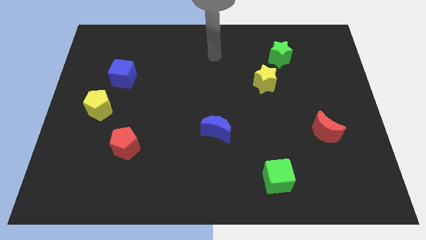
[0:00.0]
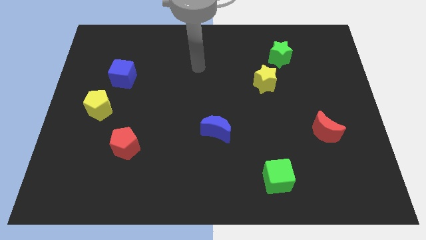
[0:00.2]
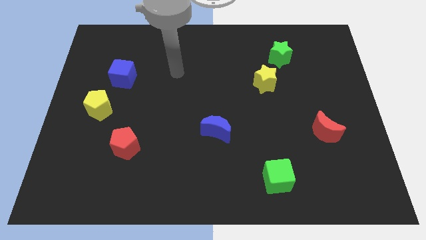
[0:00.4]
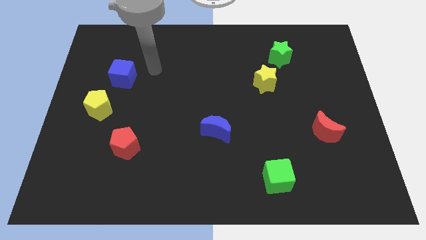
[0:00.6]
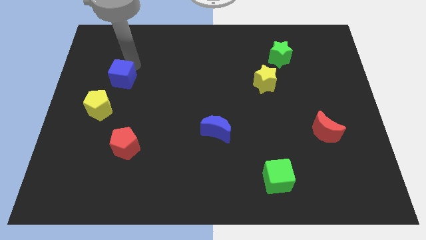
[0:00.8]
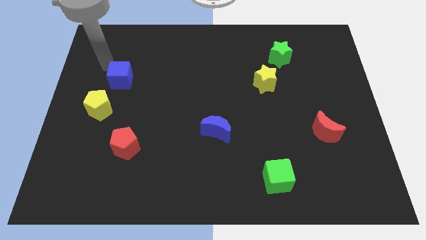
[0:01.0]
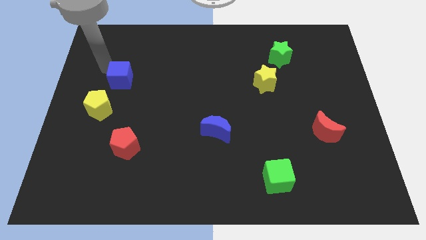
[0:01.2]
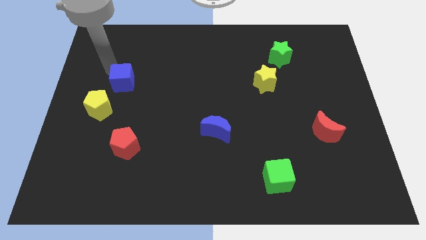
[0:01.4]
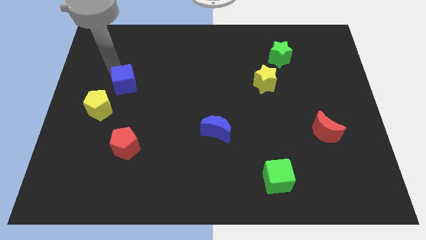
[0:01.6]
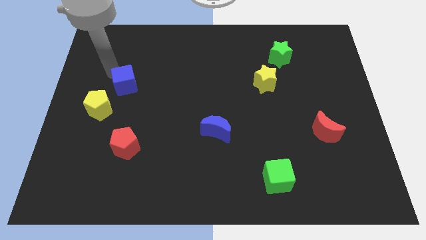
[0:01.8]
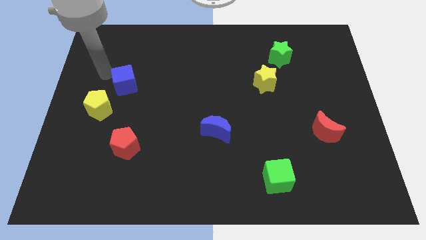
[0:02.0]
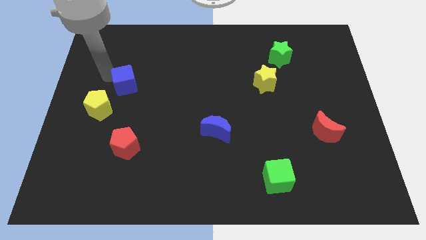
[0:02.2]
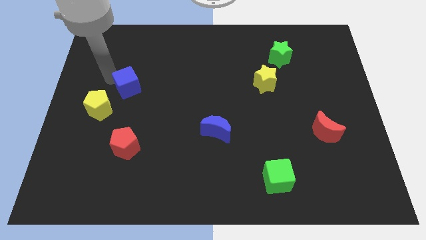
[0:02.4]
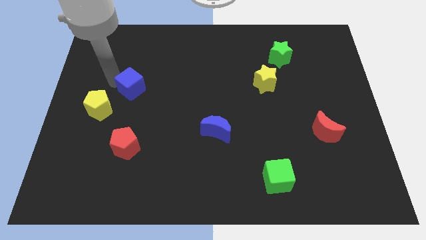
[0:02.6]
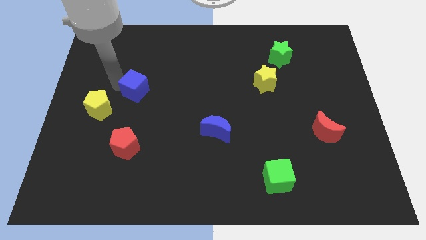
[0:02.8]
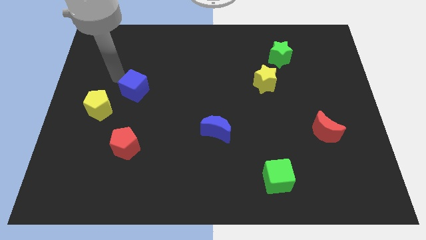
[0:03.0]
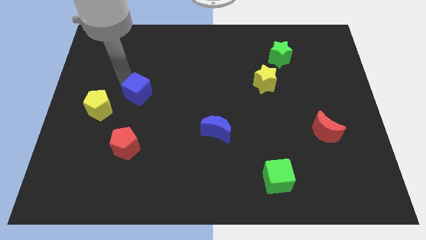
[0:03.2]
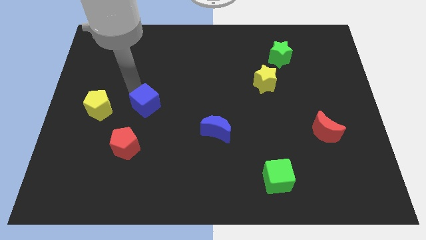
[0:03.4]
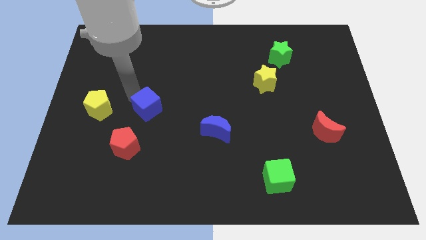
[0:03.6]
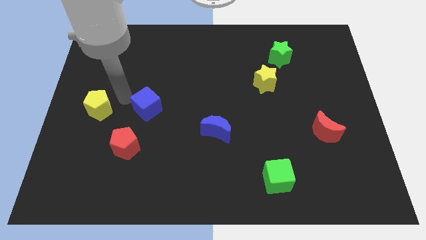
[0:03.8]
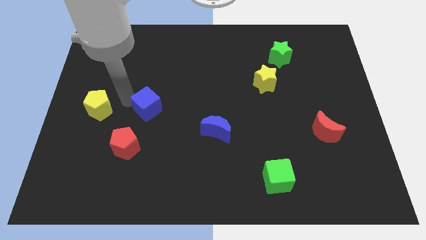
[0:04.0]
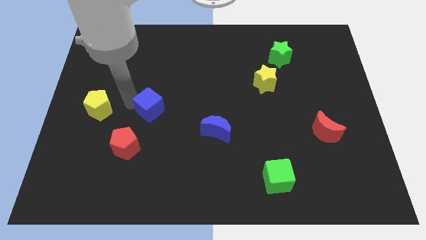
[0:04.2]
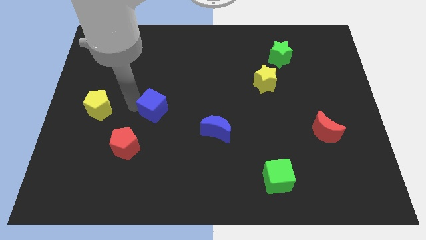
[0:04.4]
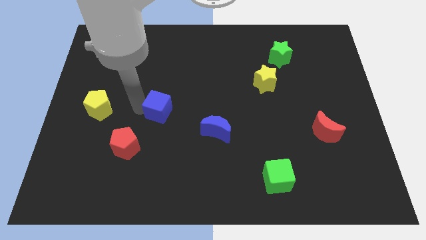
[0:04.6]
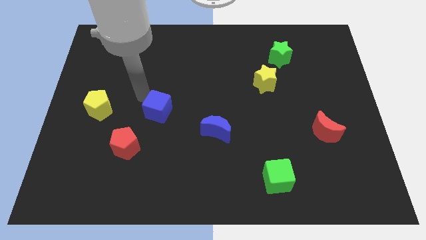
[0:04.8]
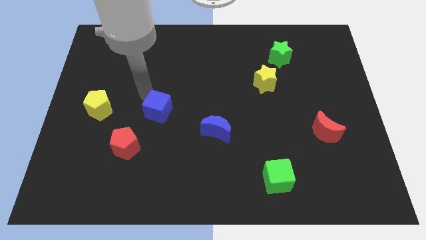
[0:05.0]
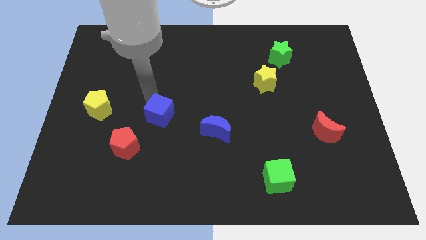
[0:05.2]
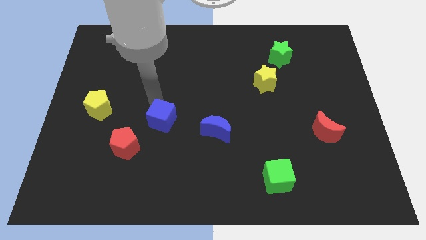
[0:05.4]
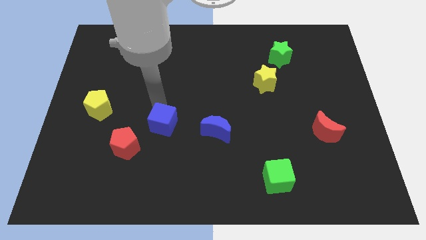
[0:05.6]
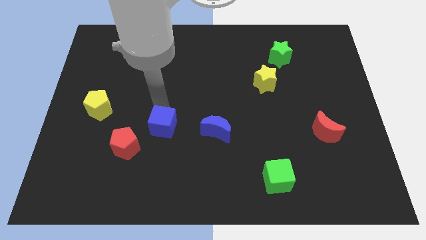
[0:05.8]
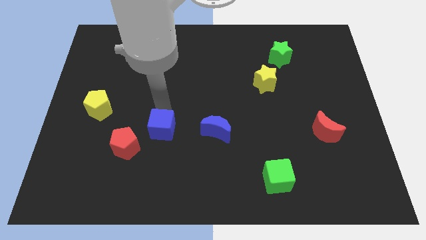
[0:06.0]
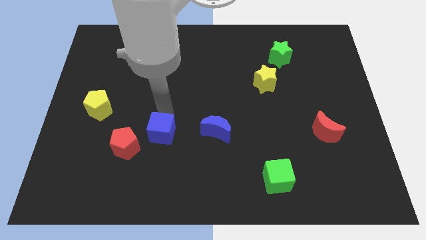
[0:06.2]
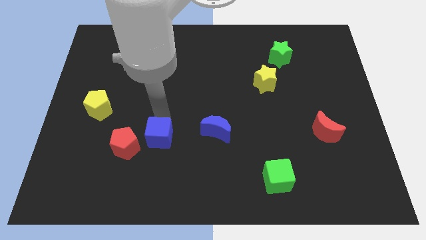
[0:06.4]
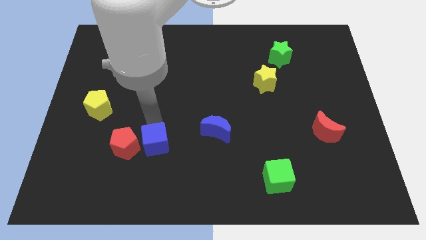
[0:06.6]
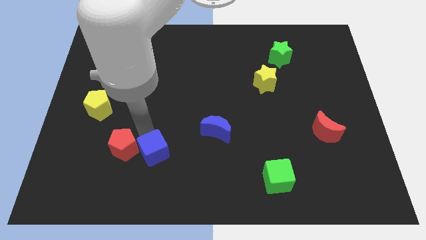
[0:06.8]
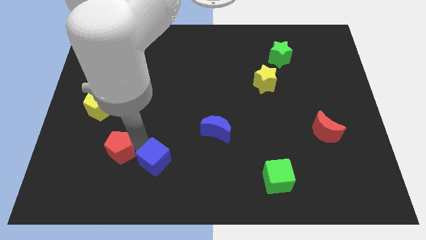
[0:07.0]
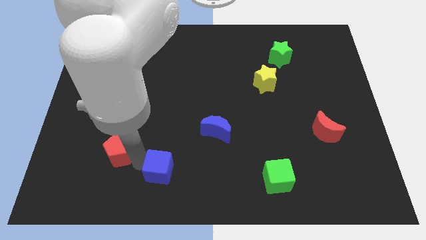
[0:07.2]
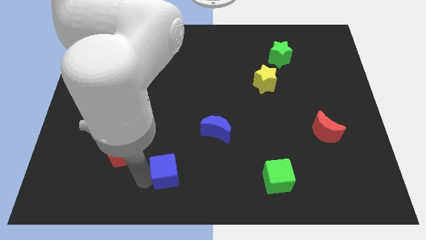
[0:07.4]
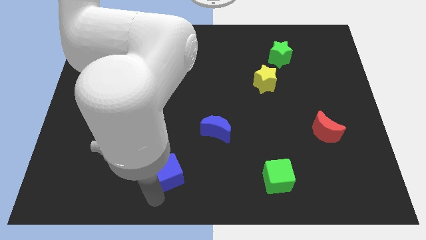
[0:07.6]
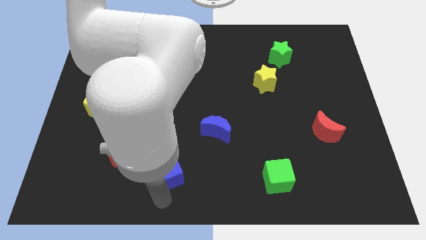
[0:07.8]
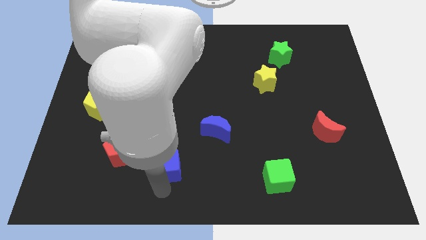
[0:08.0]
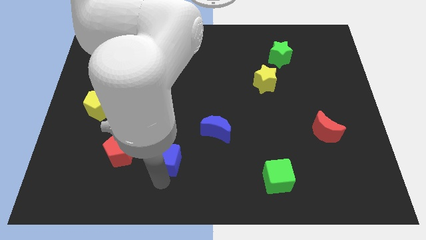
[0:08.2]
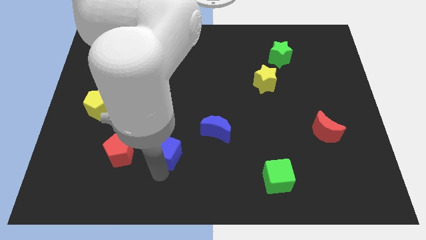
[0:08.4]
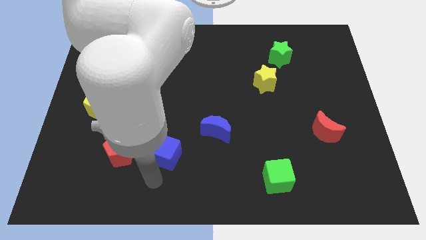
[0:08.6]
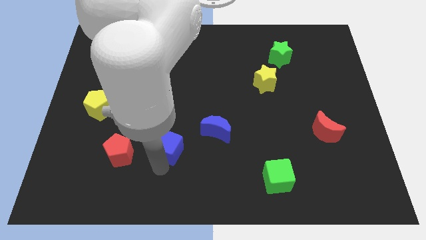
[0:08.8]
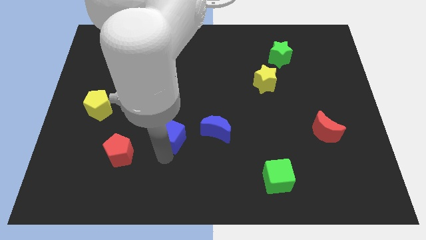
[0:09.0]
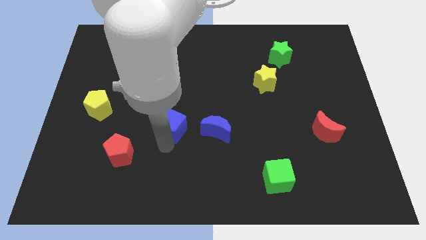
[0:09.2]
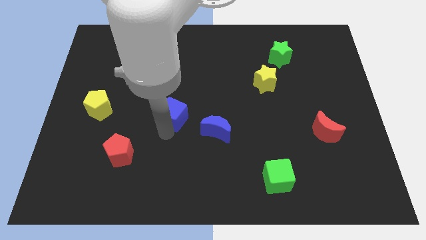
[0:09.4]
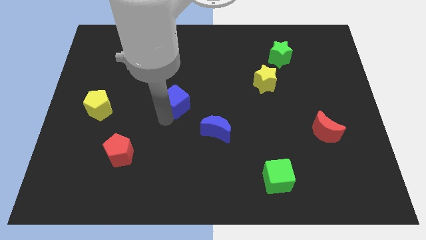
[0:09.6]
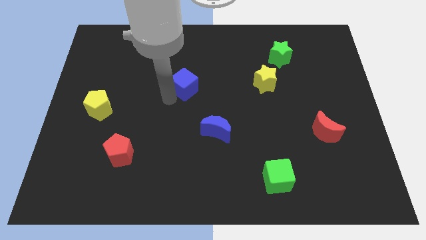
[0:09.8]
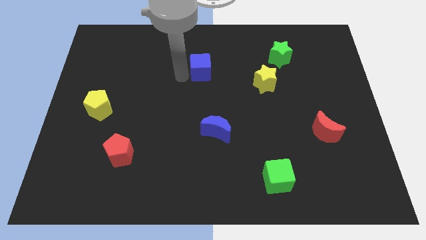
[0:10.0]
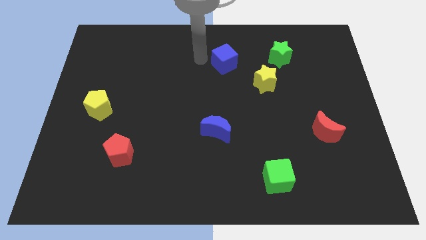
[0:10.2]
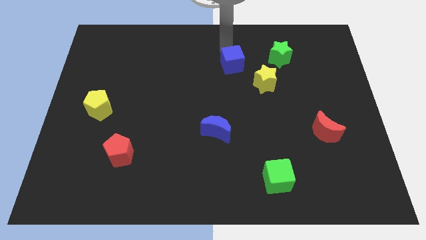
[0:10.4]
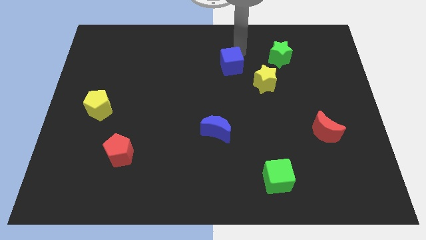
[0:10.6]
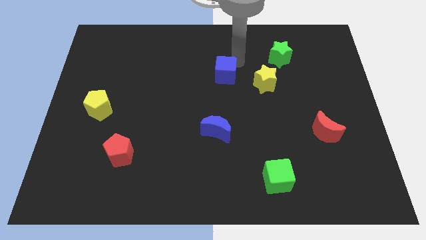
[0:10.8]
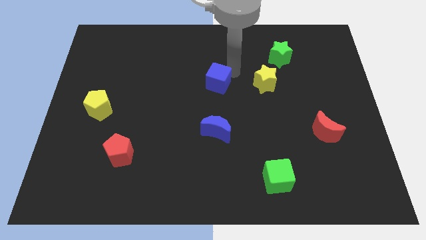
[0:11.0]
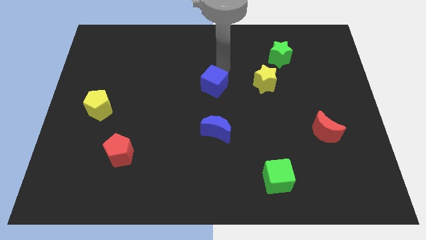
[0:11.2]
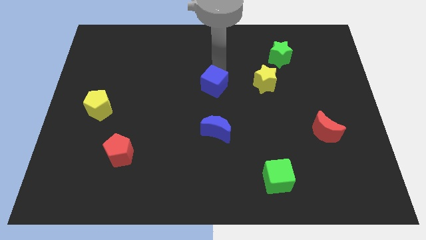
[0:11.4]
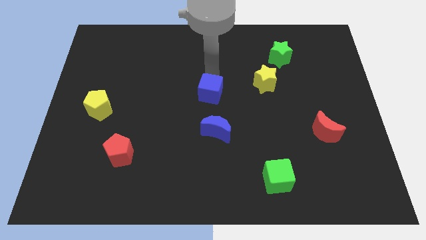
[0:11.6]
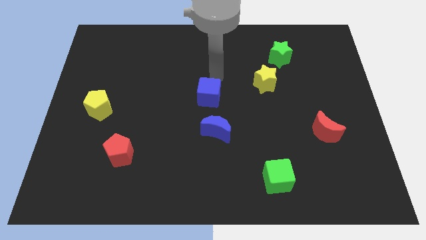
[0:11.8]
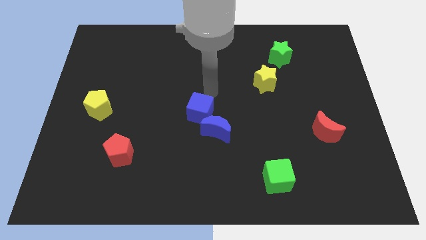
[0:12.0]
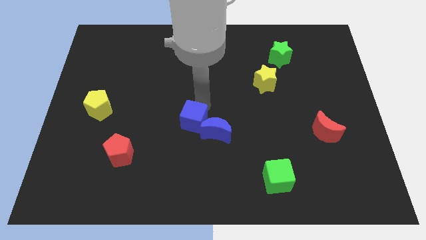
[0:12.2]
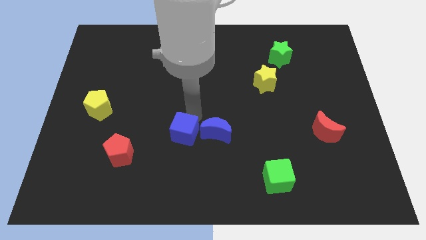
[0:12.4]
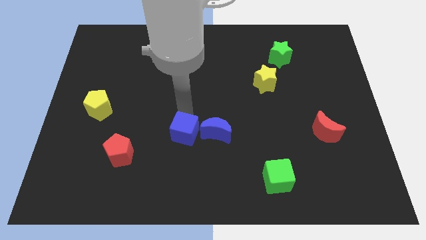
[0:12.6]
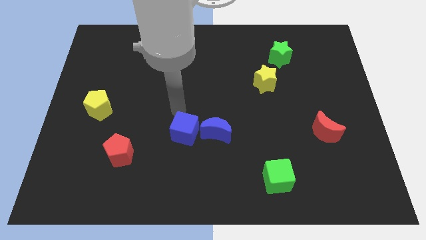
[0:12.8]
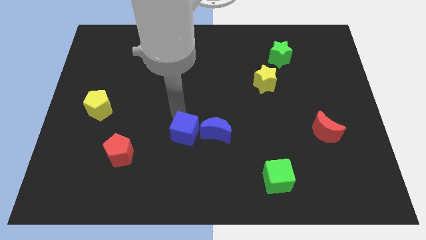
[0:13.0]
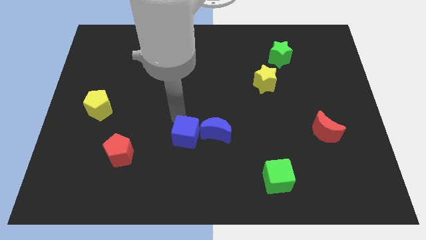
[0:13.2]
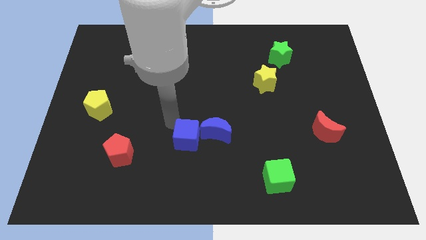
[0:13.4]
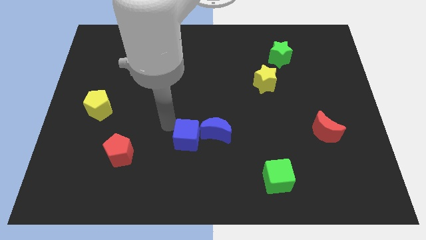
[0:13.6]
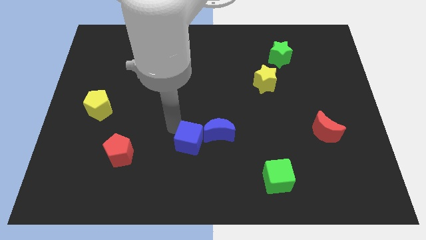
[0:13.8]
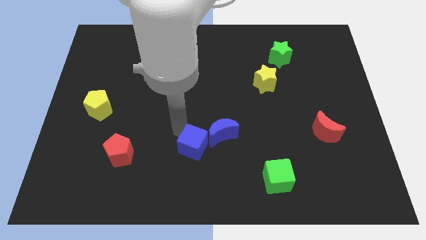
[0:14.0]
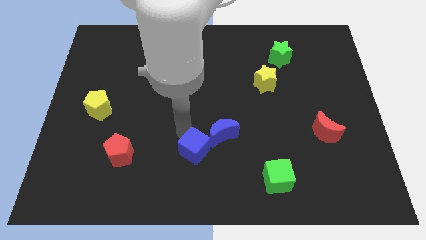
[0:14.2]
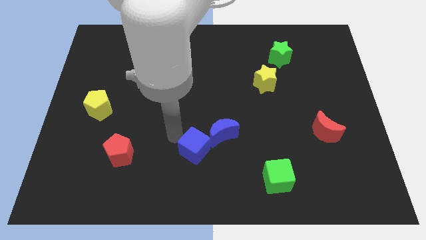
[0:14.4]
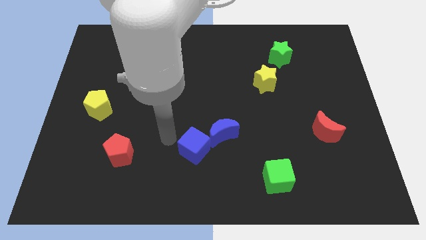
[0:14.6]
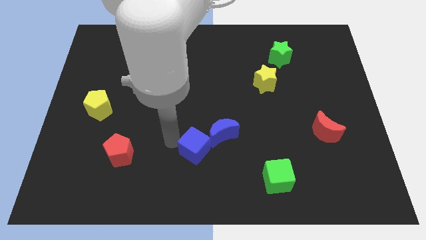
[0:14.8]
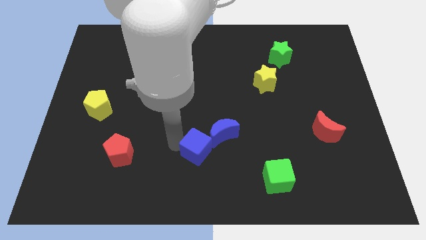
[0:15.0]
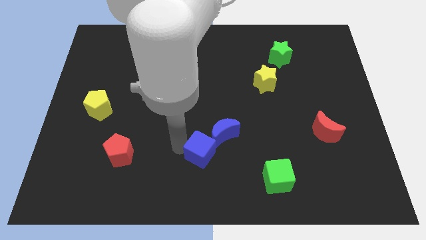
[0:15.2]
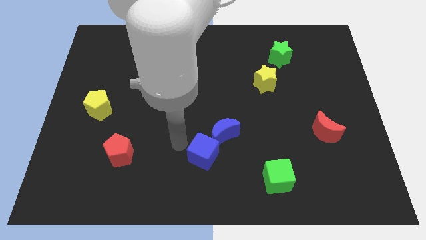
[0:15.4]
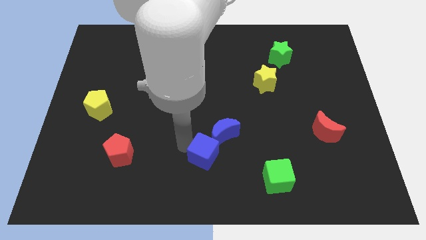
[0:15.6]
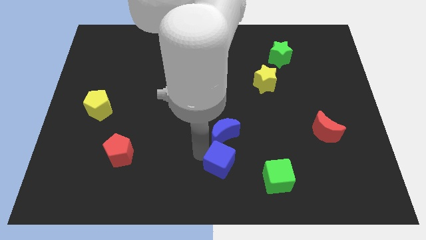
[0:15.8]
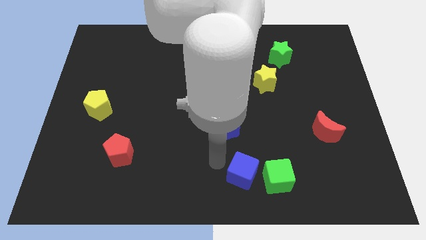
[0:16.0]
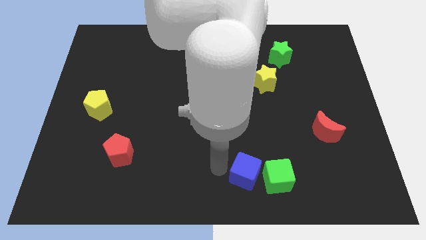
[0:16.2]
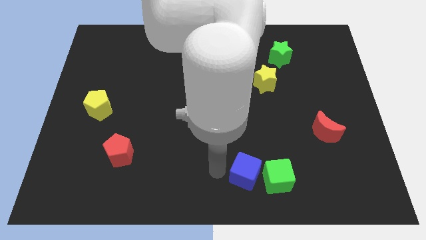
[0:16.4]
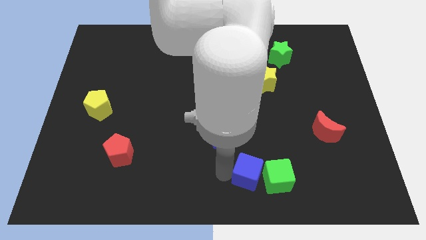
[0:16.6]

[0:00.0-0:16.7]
slide the blue cube towards the green cube
